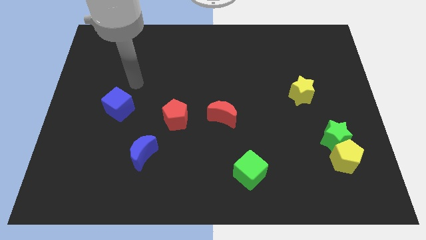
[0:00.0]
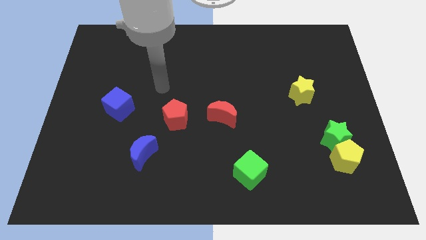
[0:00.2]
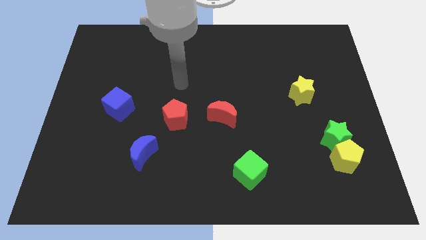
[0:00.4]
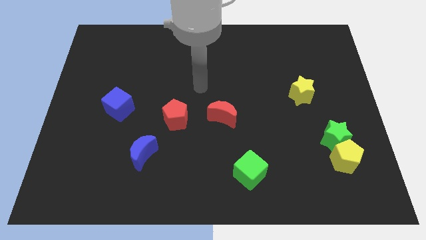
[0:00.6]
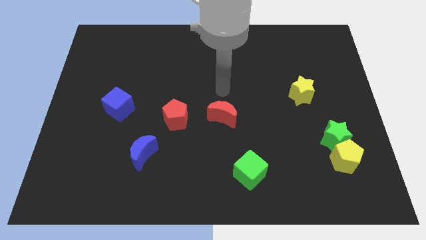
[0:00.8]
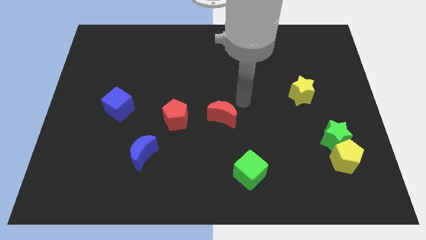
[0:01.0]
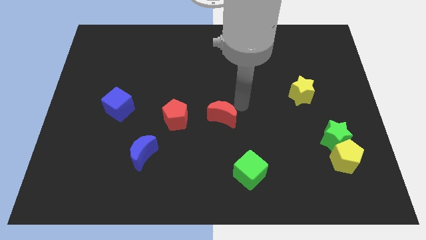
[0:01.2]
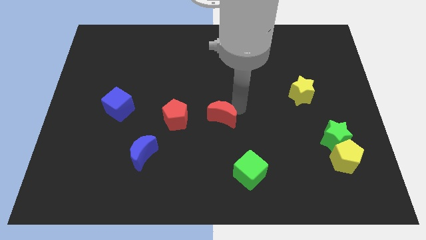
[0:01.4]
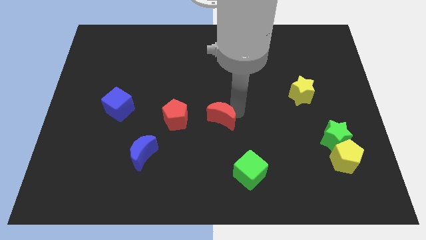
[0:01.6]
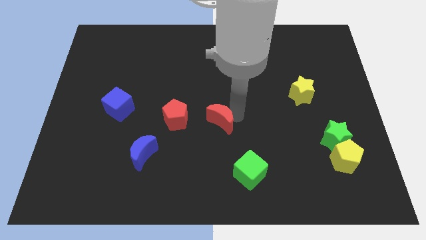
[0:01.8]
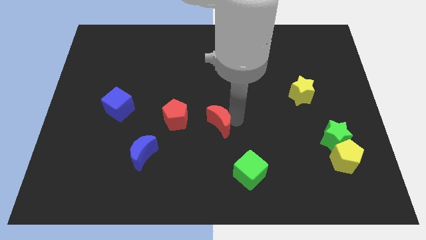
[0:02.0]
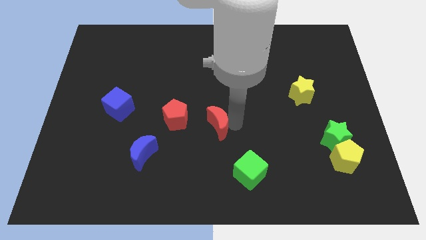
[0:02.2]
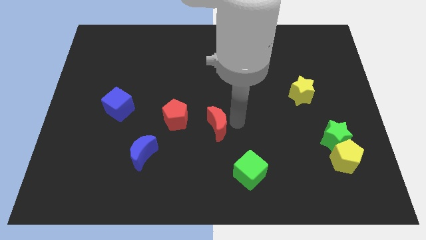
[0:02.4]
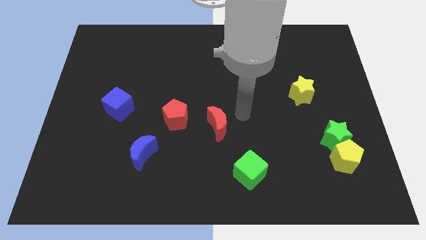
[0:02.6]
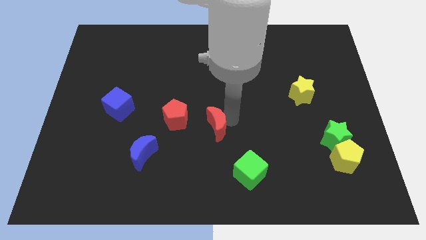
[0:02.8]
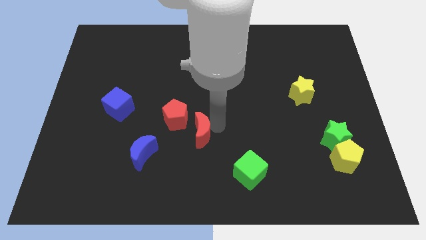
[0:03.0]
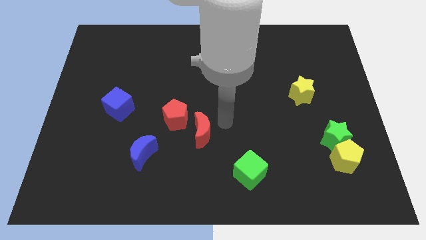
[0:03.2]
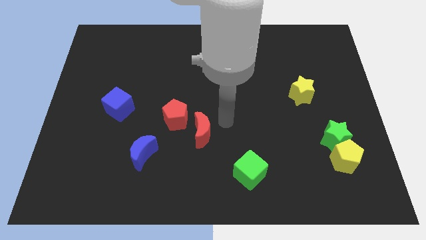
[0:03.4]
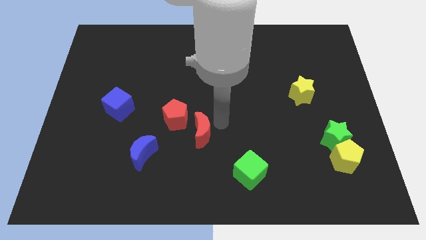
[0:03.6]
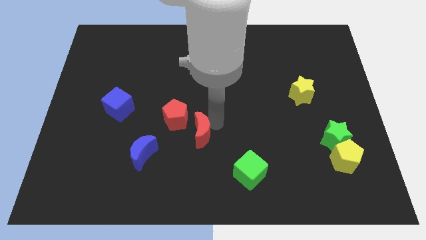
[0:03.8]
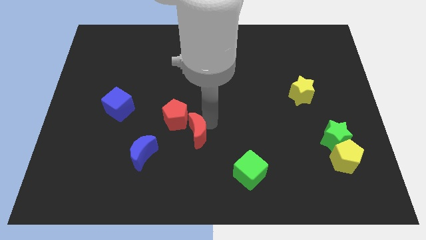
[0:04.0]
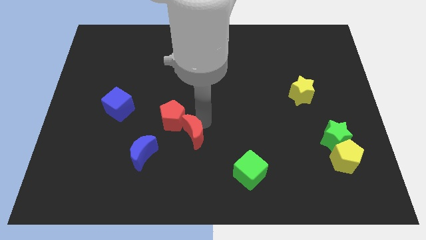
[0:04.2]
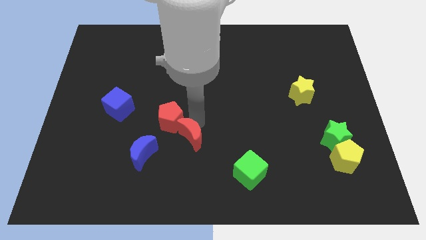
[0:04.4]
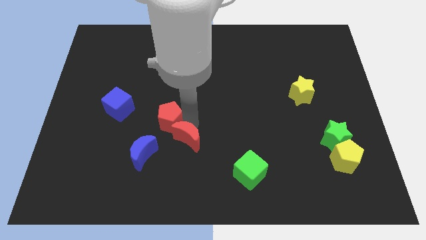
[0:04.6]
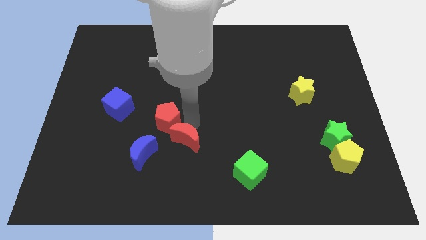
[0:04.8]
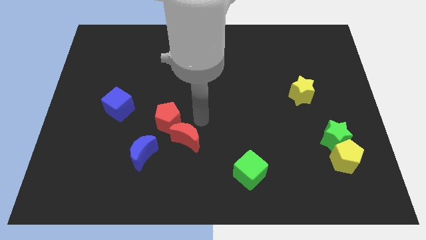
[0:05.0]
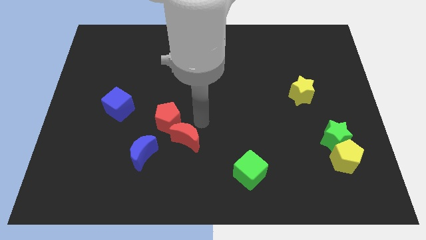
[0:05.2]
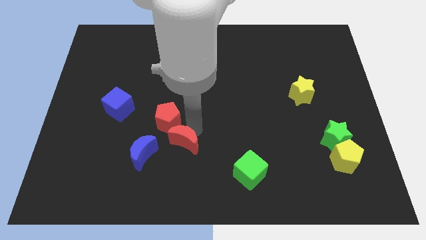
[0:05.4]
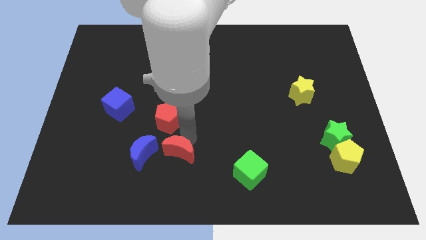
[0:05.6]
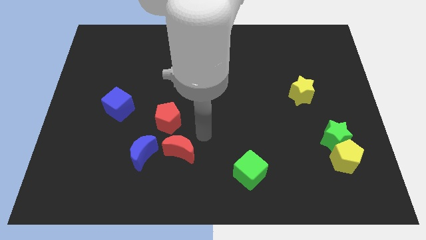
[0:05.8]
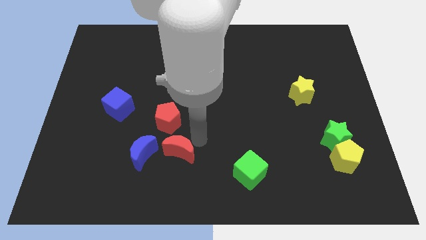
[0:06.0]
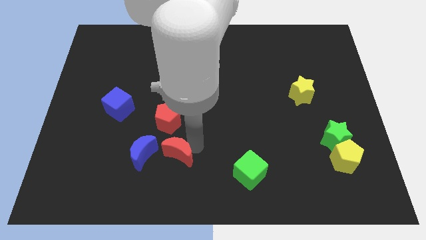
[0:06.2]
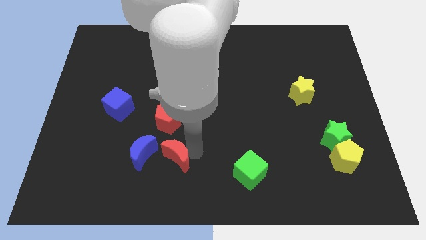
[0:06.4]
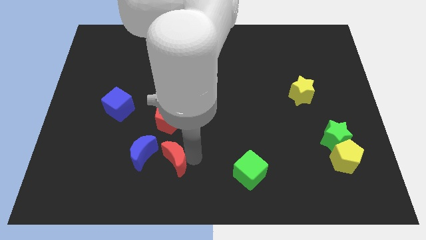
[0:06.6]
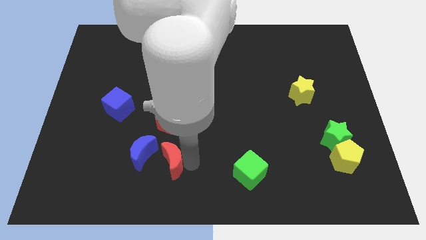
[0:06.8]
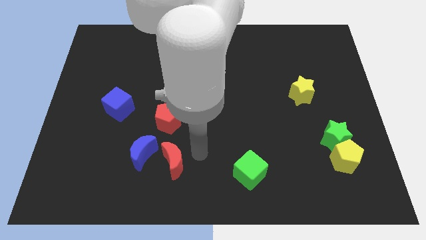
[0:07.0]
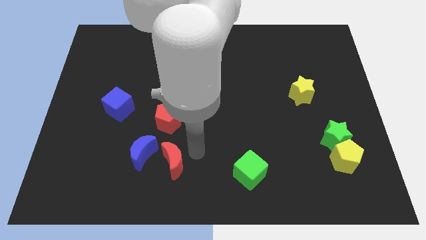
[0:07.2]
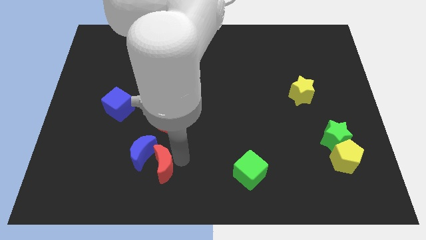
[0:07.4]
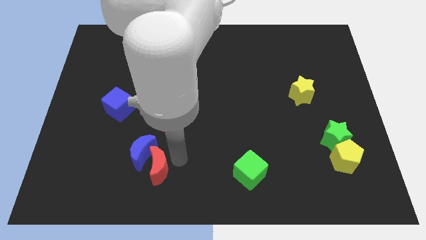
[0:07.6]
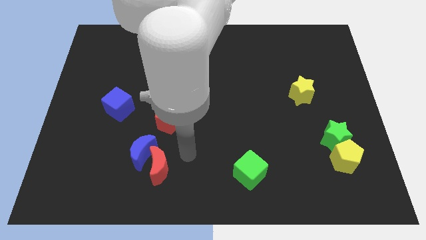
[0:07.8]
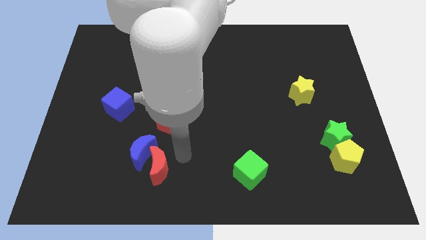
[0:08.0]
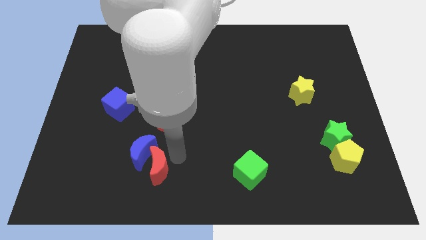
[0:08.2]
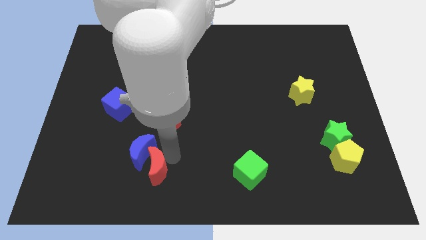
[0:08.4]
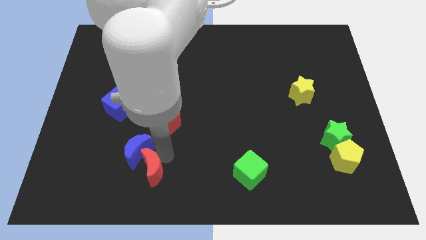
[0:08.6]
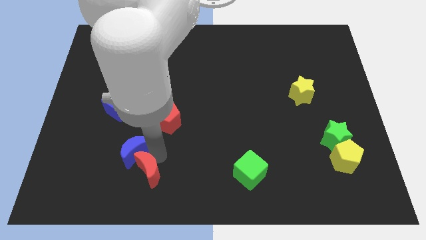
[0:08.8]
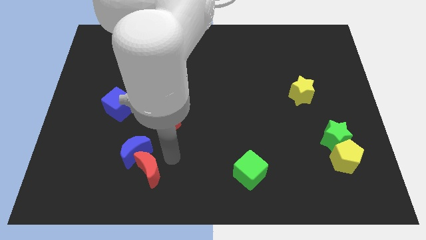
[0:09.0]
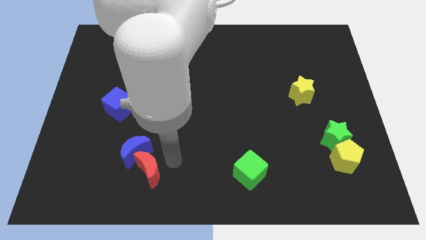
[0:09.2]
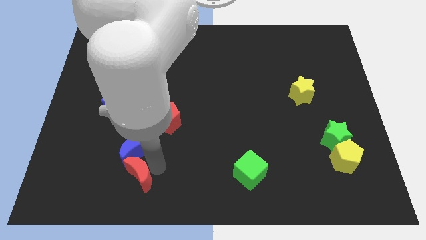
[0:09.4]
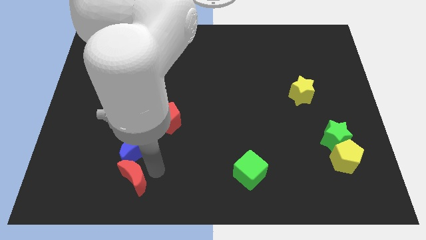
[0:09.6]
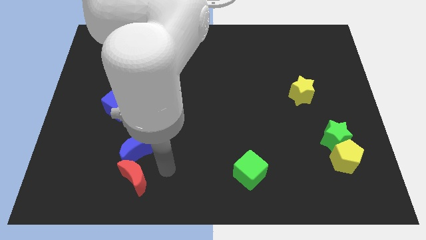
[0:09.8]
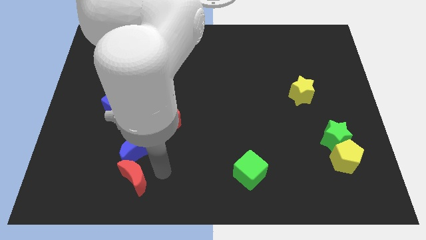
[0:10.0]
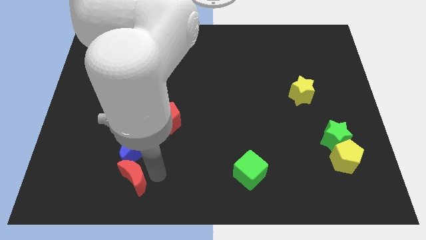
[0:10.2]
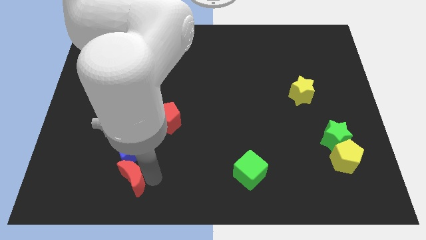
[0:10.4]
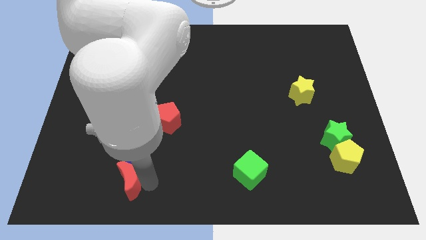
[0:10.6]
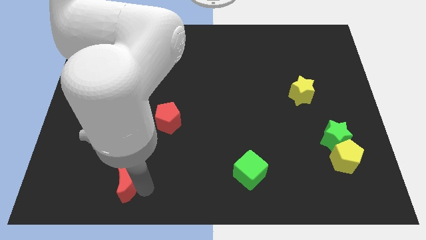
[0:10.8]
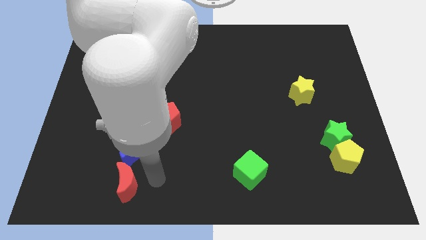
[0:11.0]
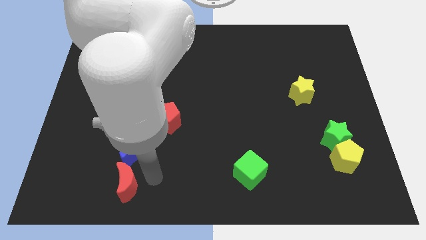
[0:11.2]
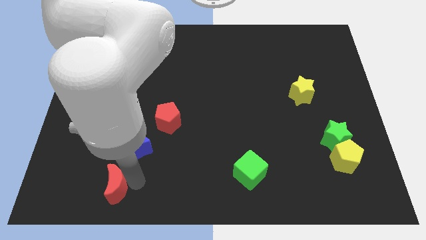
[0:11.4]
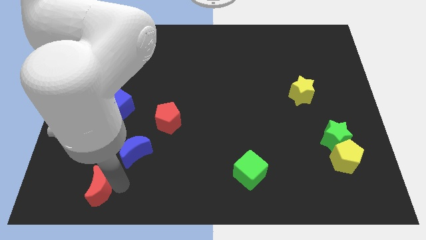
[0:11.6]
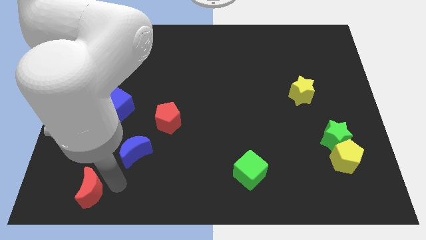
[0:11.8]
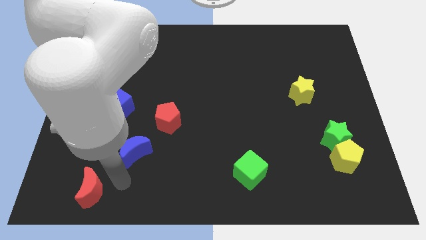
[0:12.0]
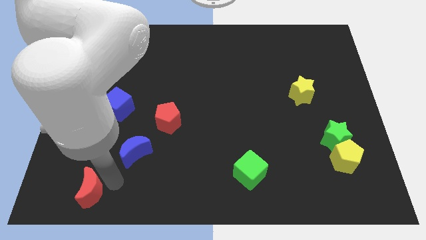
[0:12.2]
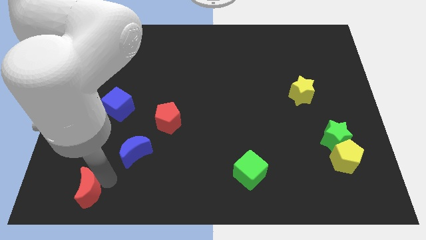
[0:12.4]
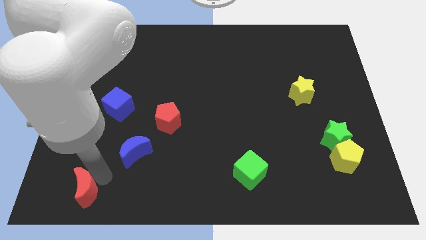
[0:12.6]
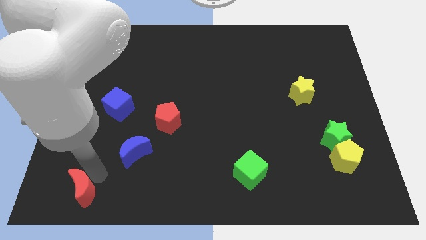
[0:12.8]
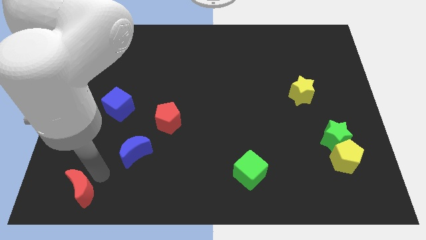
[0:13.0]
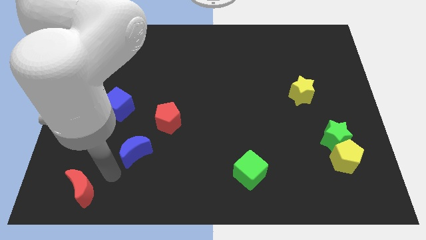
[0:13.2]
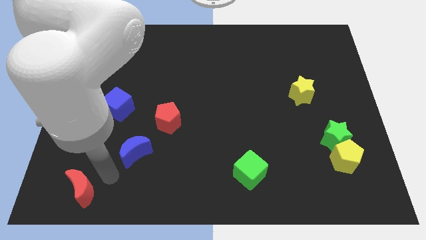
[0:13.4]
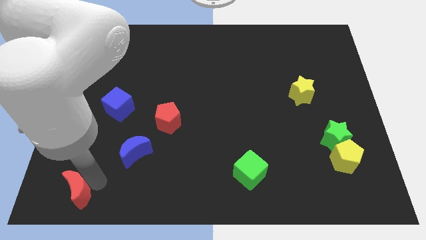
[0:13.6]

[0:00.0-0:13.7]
slide the red moon to the bottom left of the board
